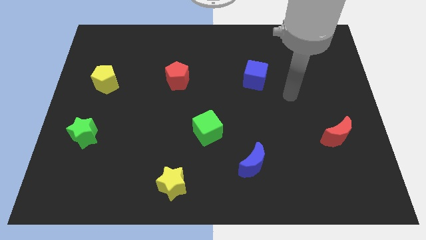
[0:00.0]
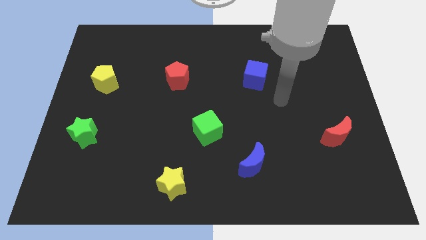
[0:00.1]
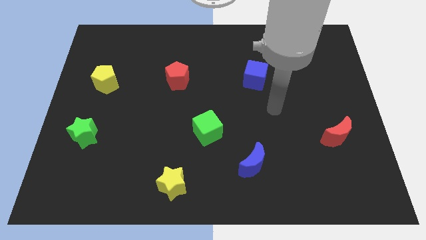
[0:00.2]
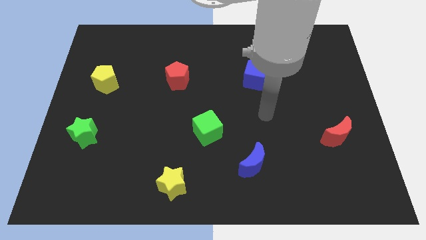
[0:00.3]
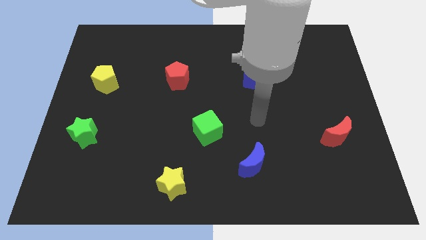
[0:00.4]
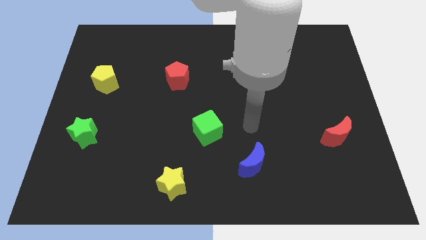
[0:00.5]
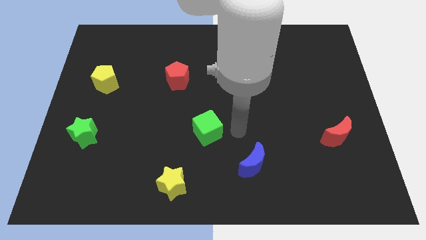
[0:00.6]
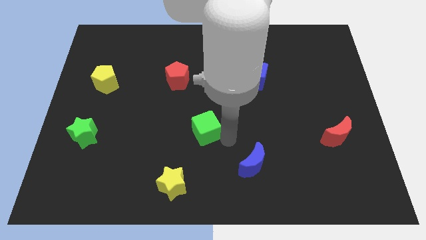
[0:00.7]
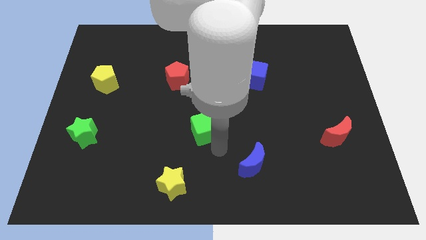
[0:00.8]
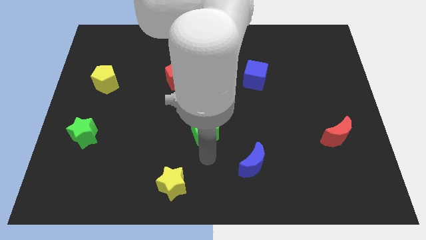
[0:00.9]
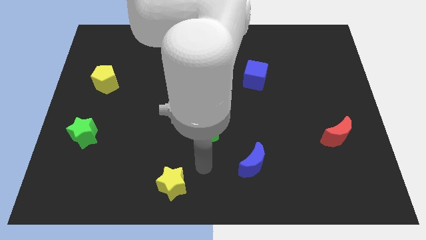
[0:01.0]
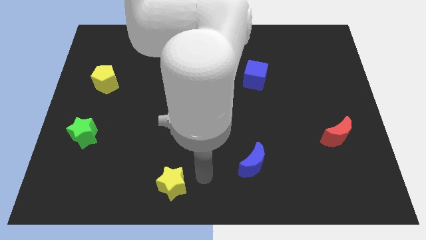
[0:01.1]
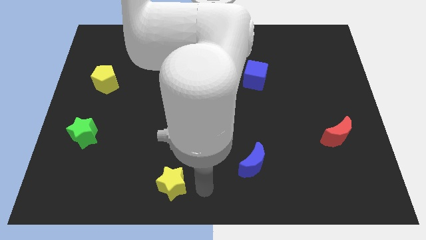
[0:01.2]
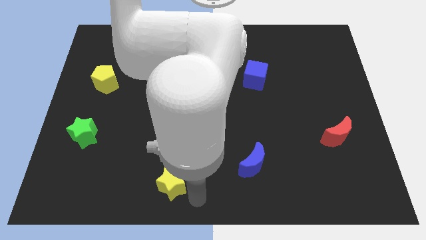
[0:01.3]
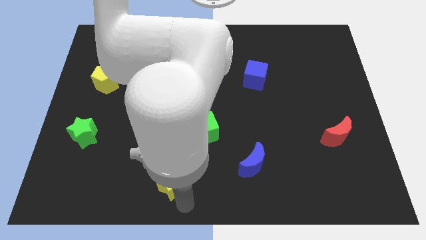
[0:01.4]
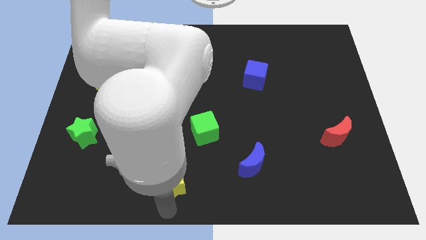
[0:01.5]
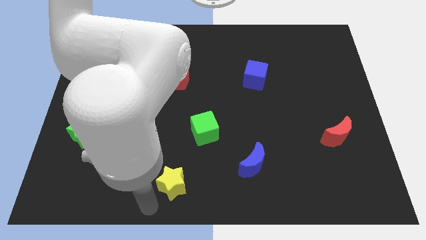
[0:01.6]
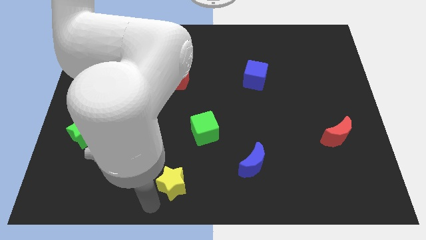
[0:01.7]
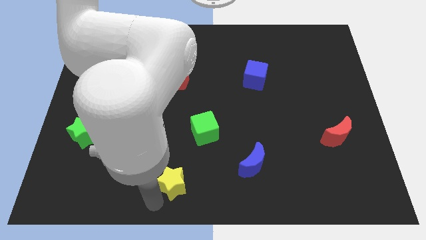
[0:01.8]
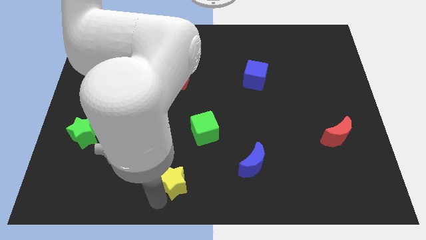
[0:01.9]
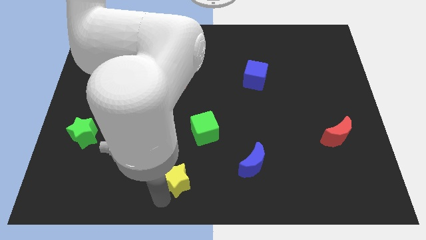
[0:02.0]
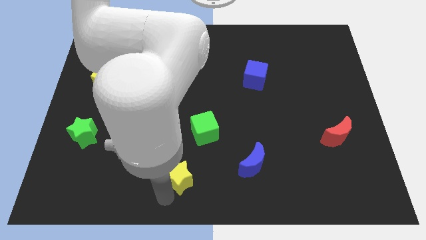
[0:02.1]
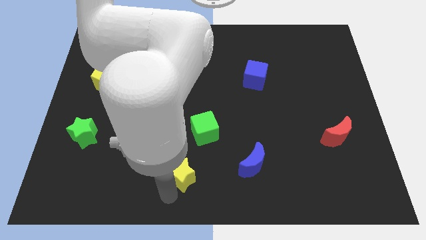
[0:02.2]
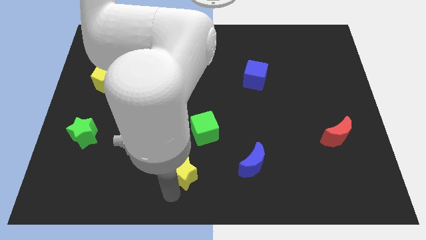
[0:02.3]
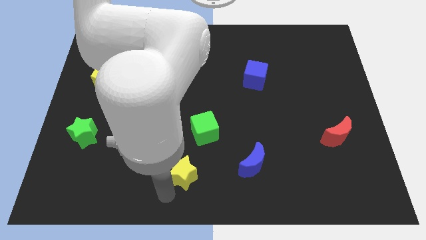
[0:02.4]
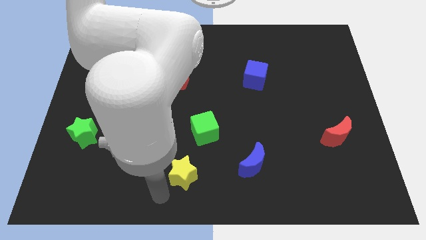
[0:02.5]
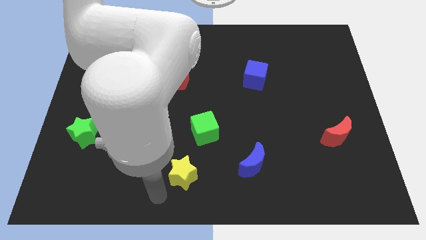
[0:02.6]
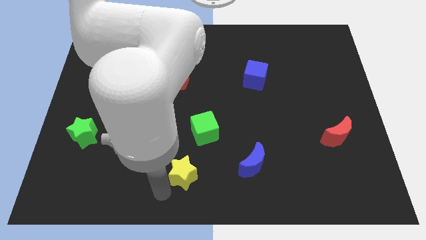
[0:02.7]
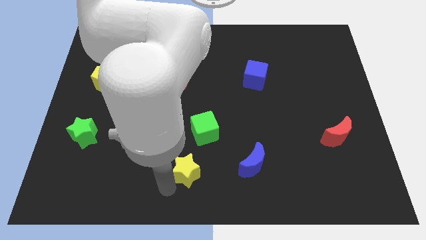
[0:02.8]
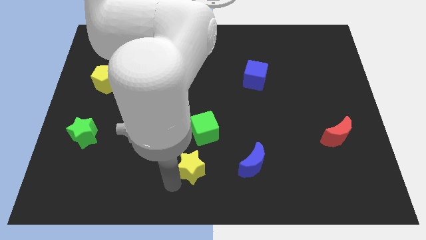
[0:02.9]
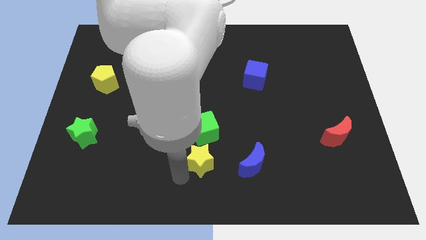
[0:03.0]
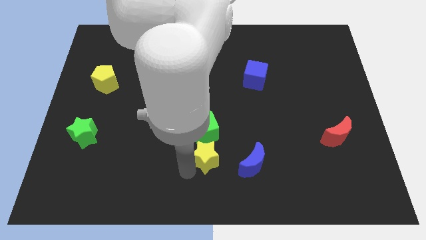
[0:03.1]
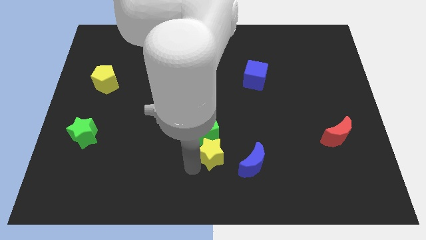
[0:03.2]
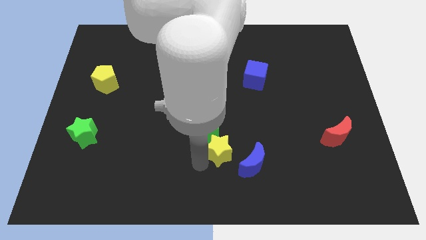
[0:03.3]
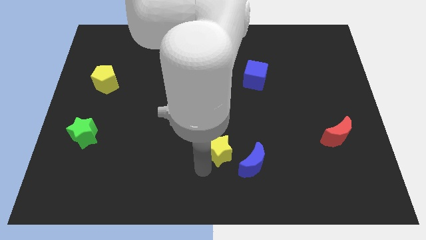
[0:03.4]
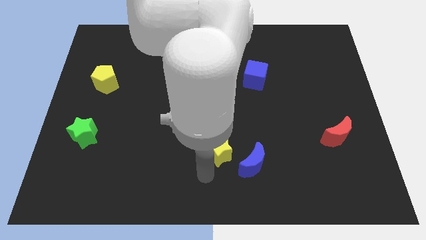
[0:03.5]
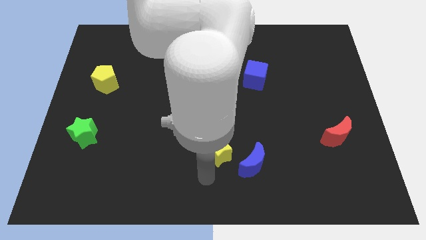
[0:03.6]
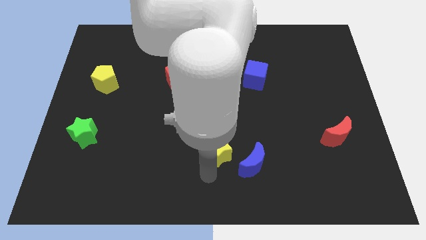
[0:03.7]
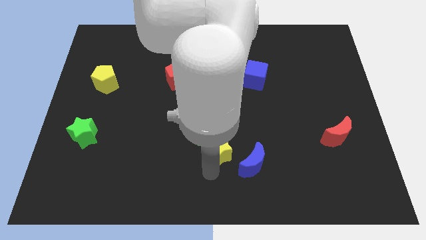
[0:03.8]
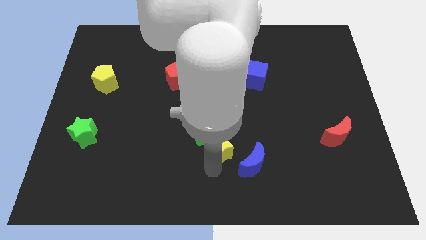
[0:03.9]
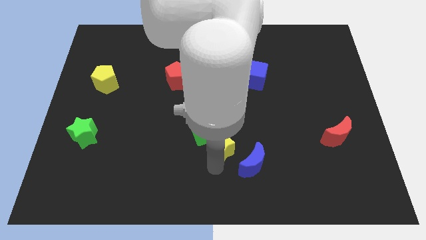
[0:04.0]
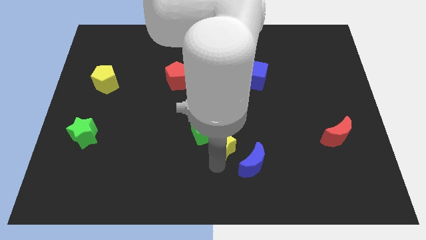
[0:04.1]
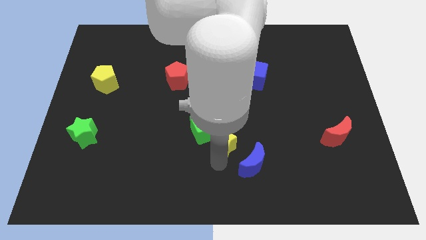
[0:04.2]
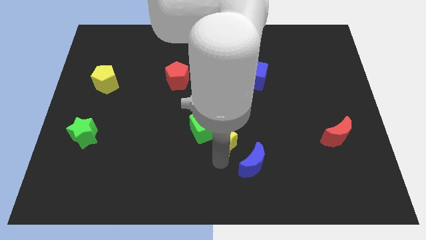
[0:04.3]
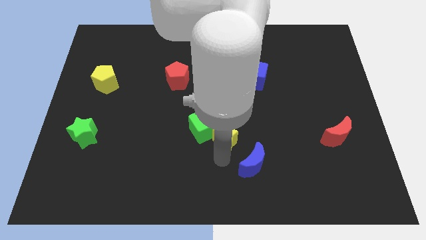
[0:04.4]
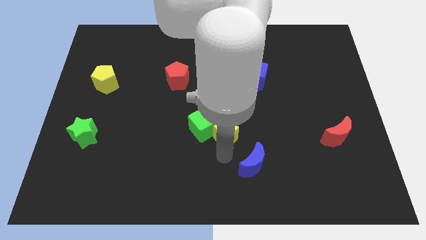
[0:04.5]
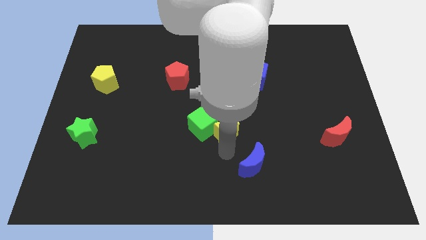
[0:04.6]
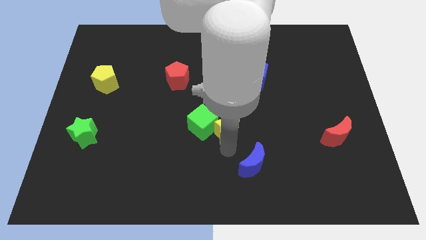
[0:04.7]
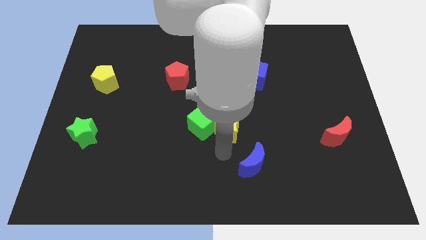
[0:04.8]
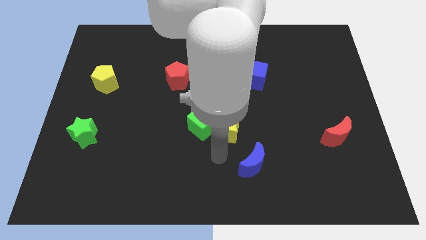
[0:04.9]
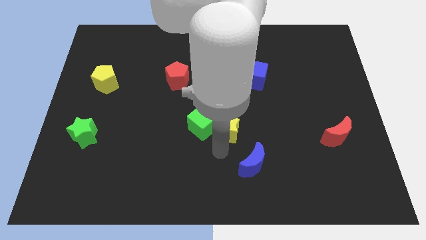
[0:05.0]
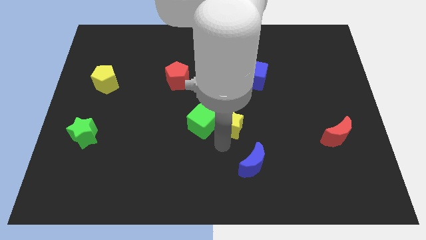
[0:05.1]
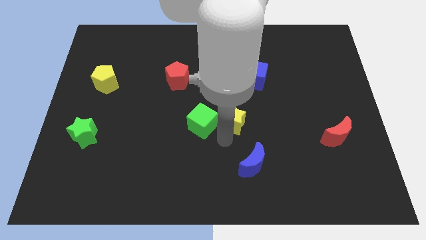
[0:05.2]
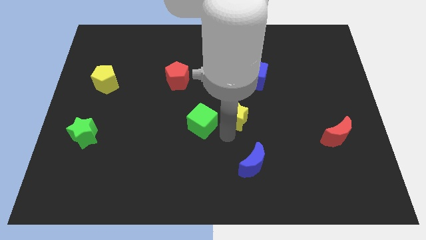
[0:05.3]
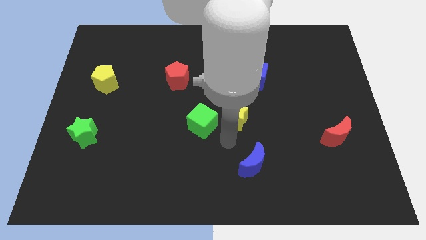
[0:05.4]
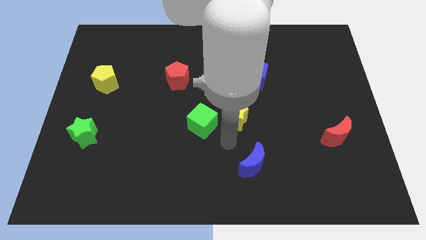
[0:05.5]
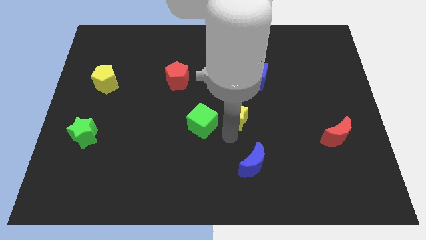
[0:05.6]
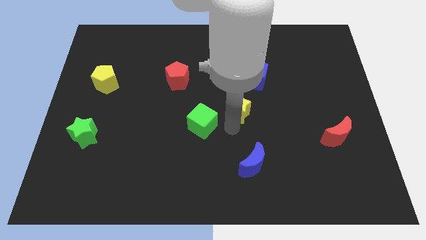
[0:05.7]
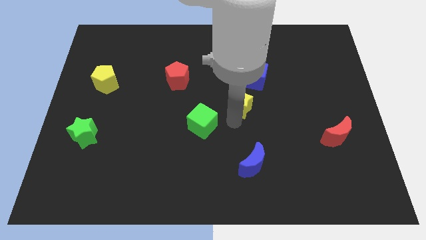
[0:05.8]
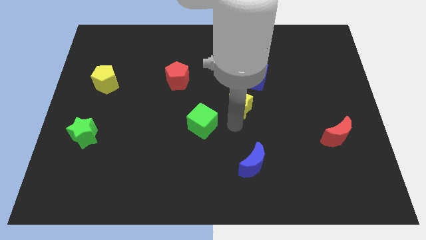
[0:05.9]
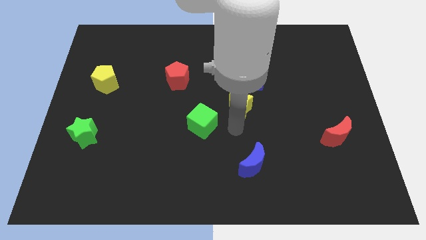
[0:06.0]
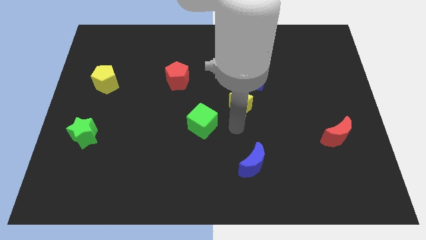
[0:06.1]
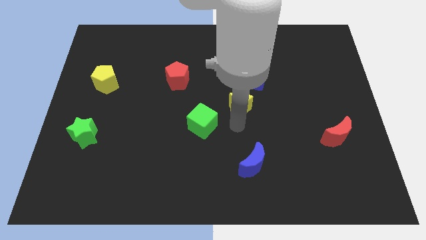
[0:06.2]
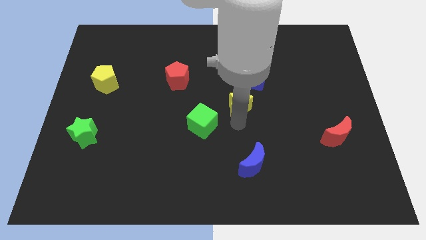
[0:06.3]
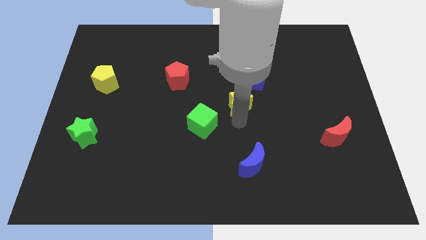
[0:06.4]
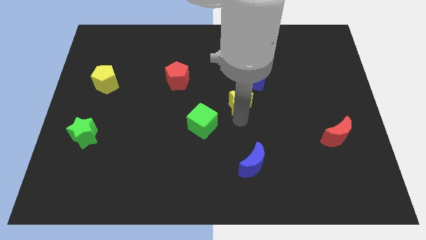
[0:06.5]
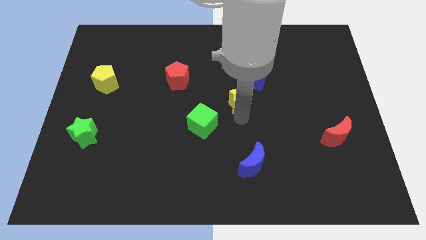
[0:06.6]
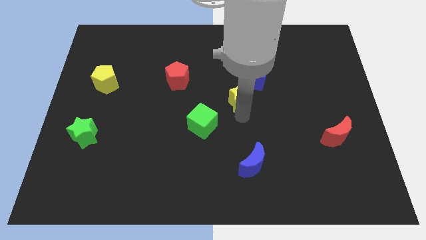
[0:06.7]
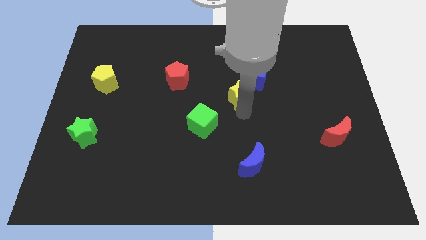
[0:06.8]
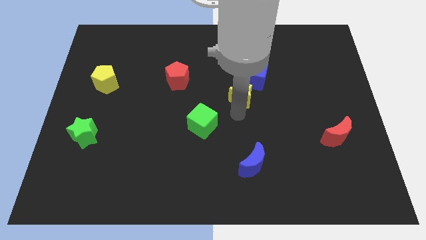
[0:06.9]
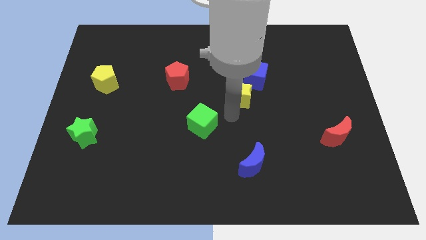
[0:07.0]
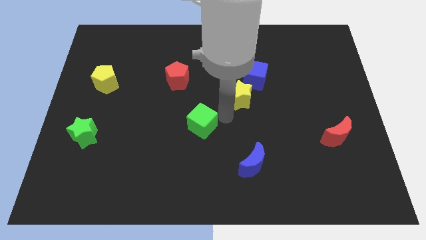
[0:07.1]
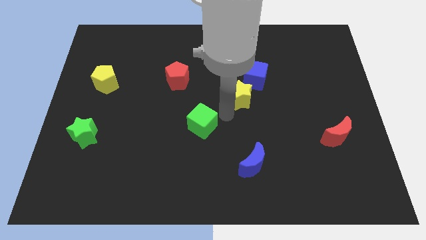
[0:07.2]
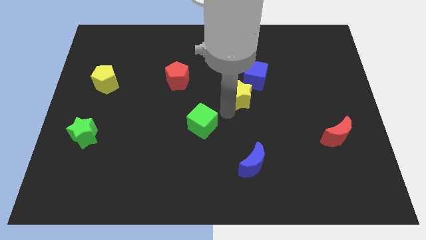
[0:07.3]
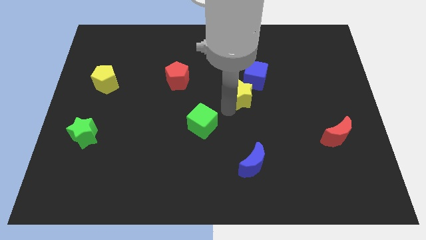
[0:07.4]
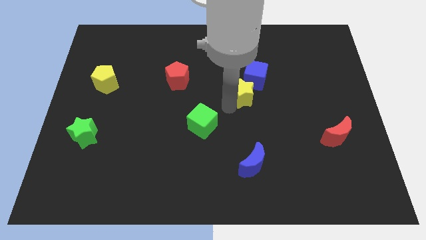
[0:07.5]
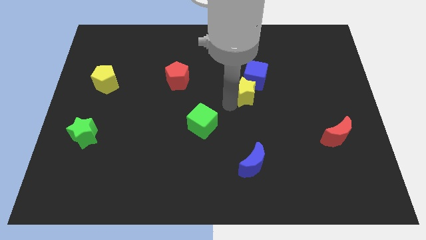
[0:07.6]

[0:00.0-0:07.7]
put the yellow star towards the blue cube
